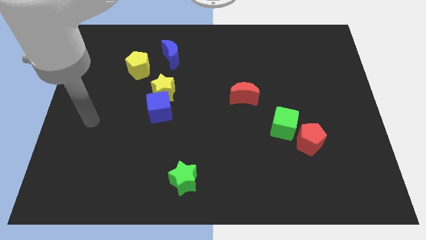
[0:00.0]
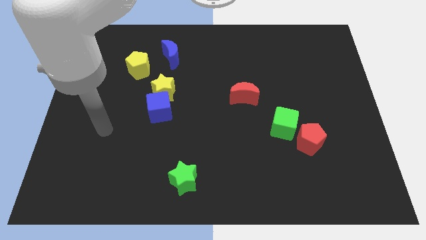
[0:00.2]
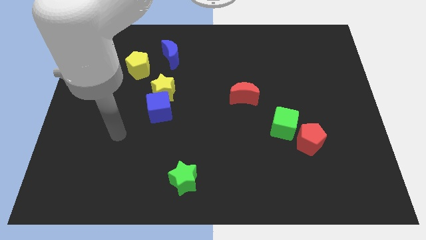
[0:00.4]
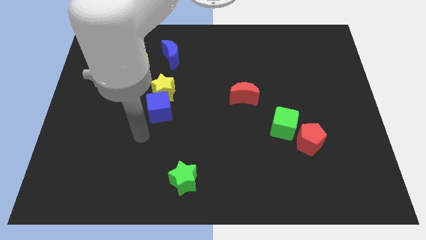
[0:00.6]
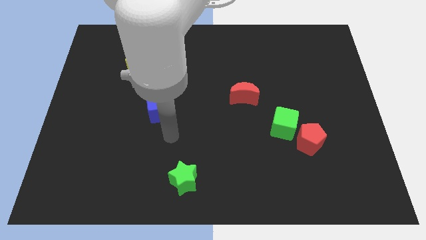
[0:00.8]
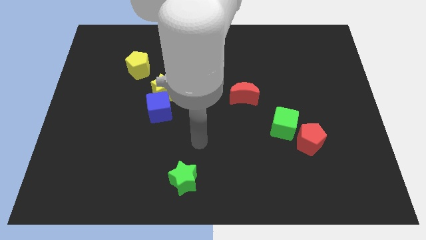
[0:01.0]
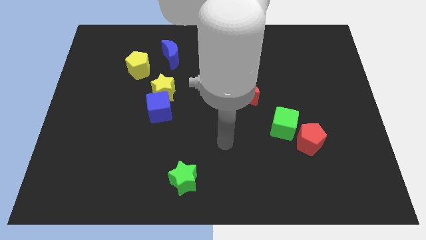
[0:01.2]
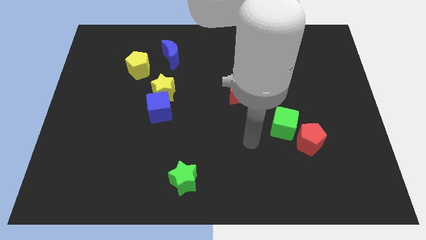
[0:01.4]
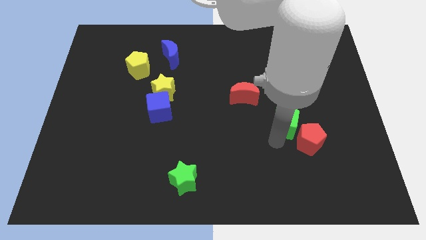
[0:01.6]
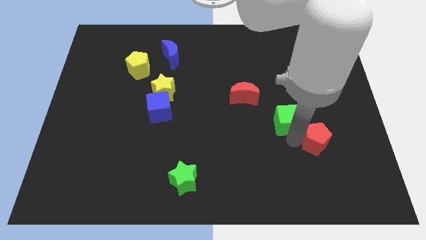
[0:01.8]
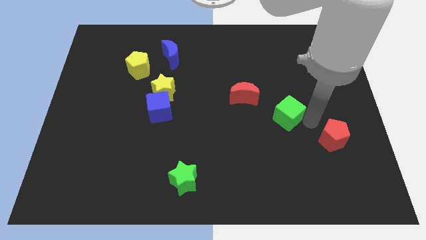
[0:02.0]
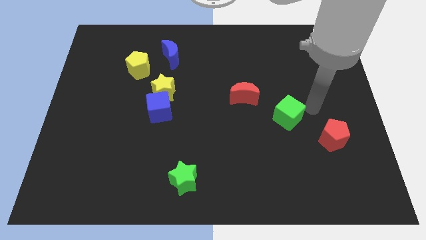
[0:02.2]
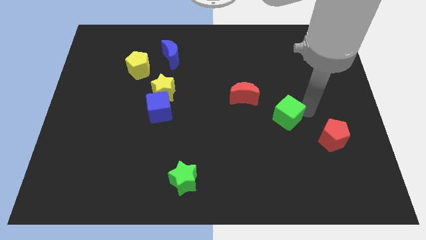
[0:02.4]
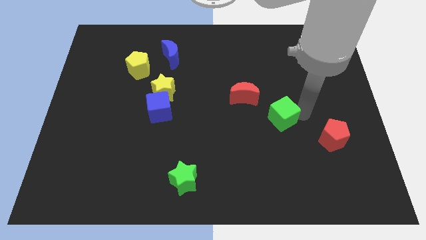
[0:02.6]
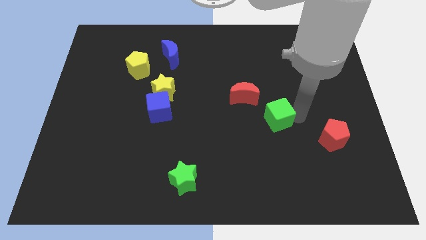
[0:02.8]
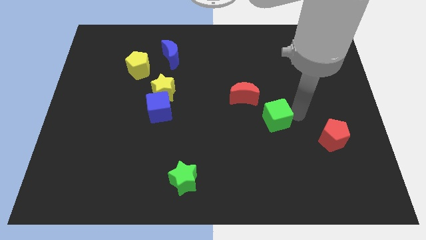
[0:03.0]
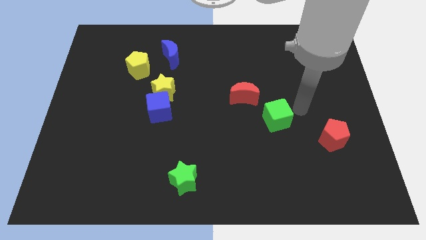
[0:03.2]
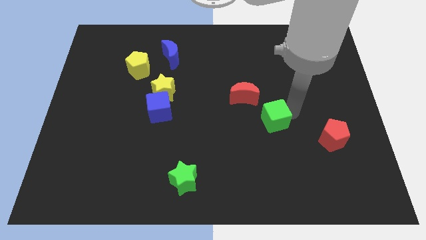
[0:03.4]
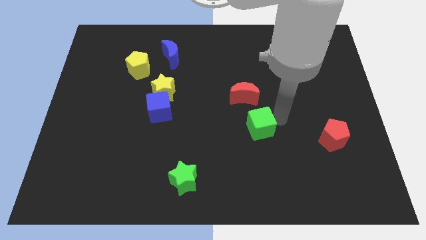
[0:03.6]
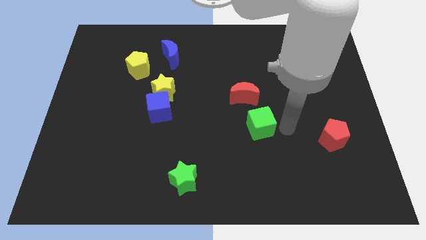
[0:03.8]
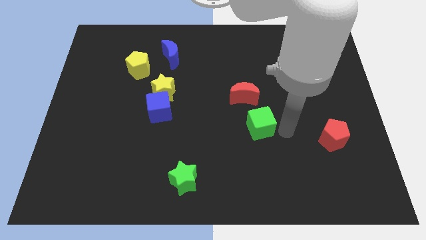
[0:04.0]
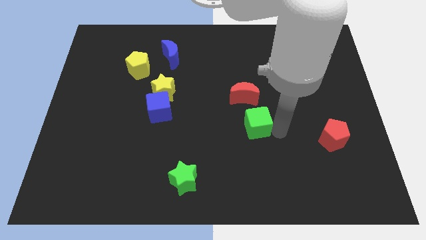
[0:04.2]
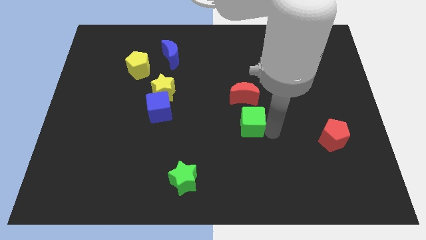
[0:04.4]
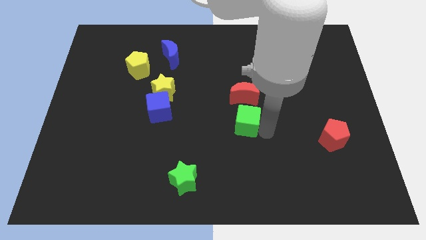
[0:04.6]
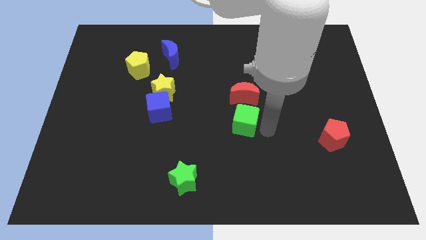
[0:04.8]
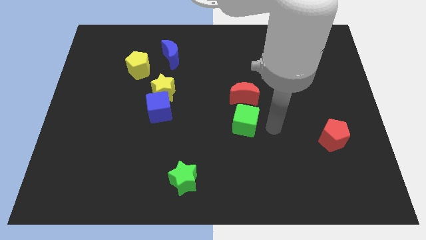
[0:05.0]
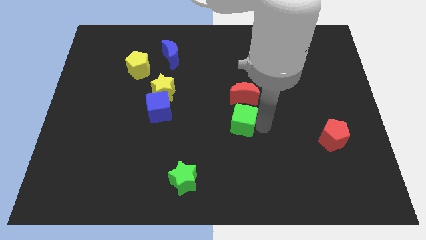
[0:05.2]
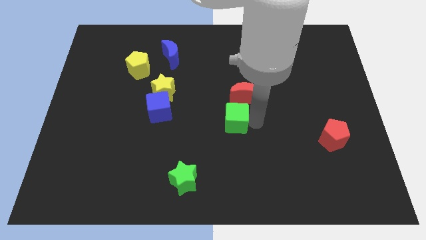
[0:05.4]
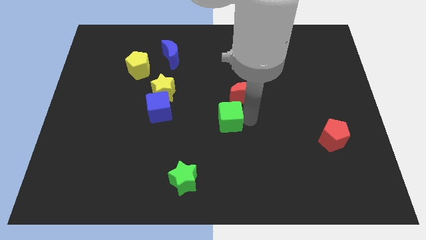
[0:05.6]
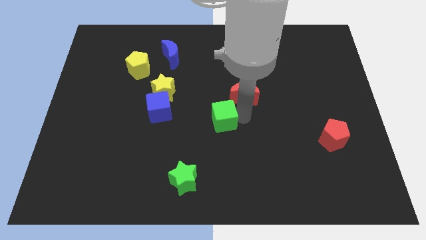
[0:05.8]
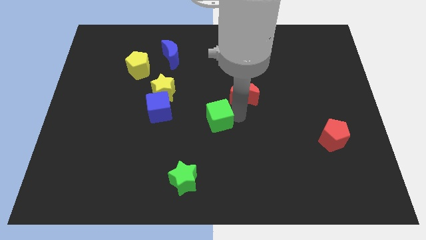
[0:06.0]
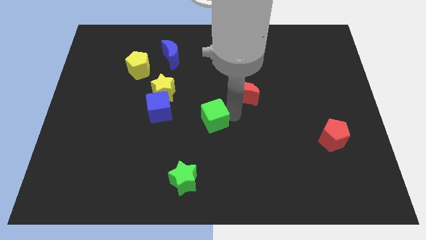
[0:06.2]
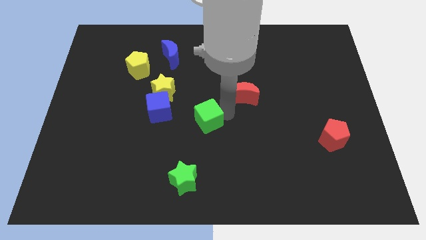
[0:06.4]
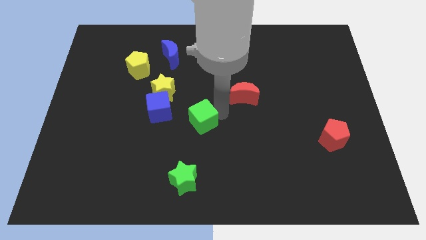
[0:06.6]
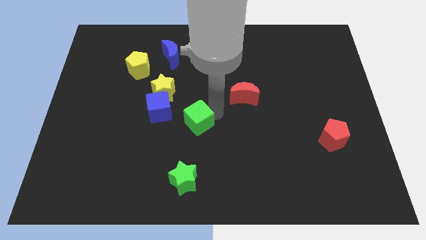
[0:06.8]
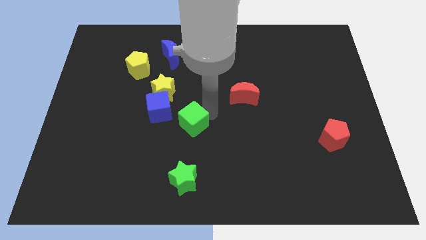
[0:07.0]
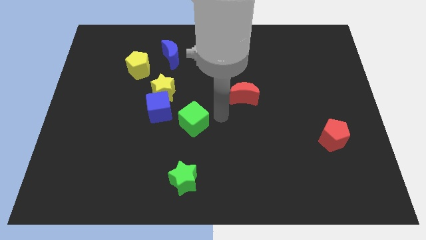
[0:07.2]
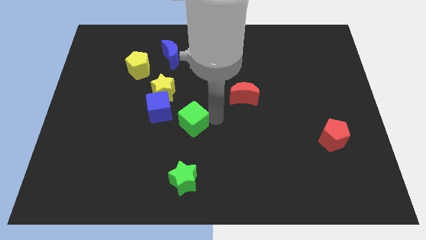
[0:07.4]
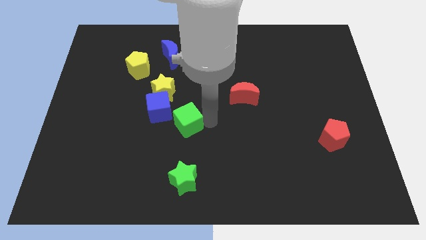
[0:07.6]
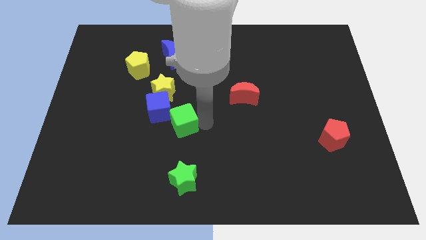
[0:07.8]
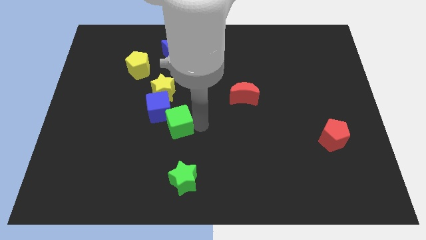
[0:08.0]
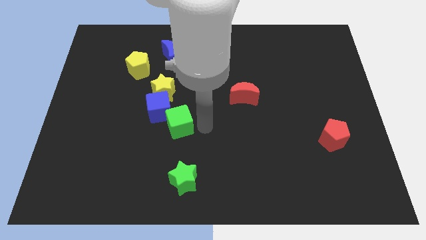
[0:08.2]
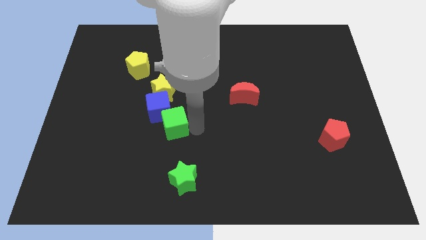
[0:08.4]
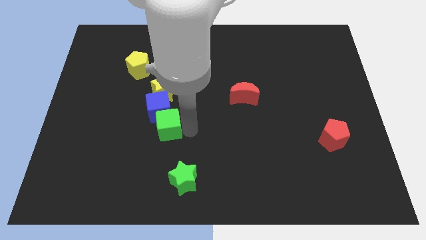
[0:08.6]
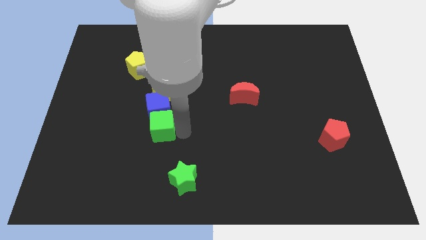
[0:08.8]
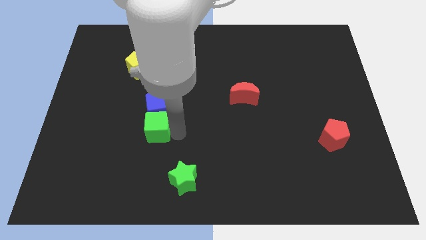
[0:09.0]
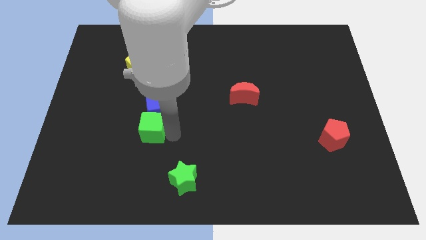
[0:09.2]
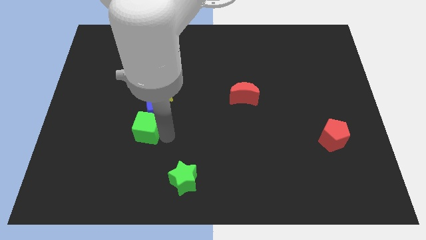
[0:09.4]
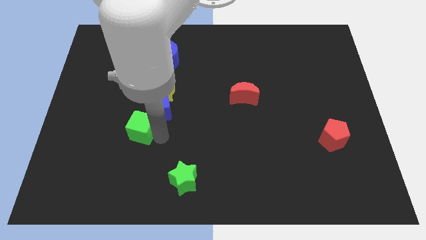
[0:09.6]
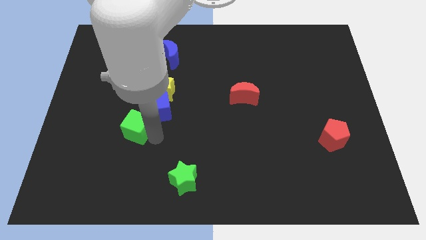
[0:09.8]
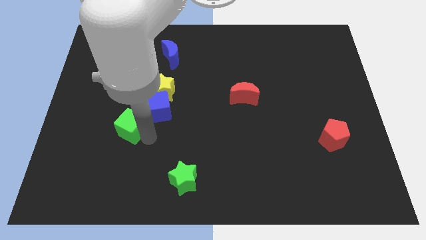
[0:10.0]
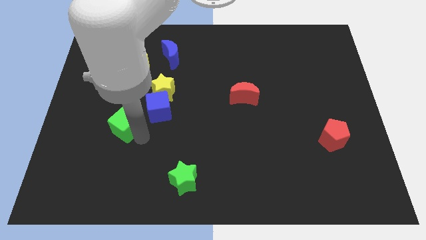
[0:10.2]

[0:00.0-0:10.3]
put the green cube just left of the blue cube

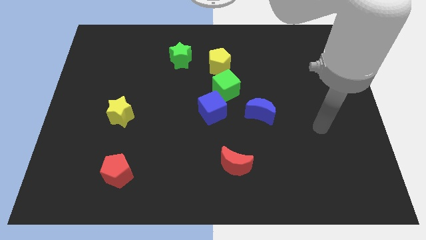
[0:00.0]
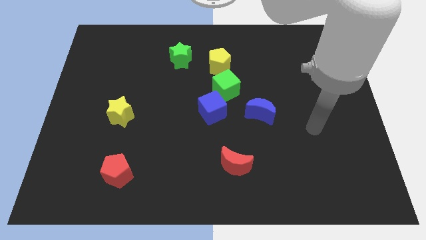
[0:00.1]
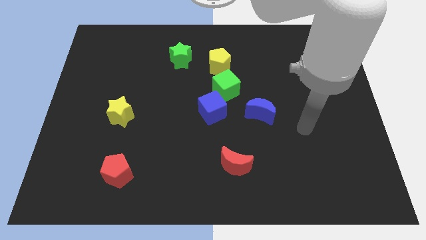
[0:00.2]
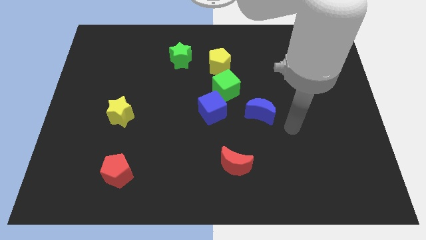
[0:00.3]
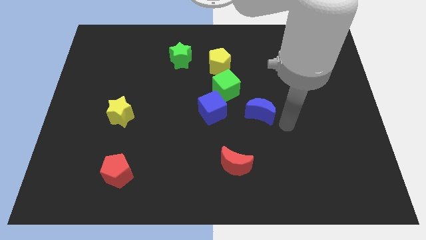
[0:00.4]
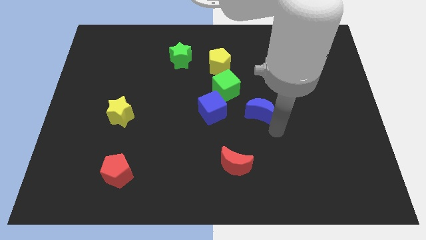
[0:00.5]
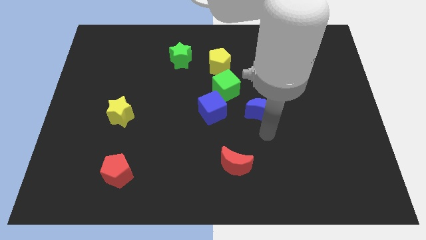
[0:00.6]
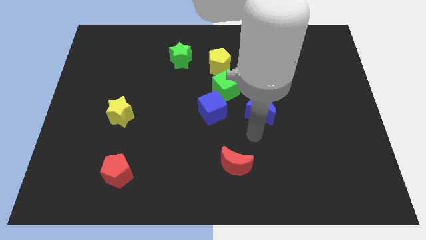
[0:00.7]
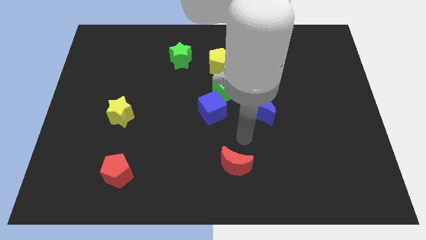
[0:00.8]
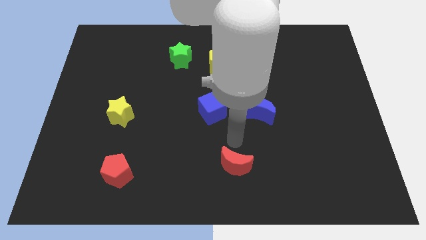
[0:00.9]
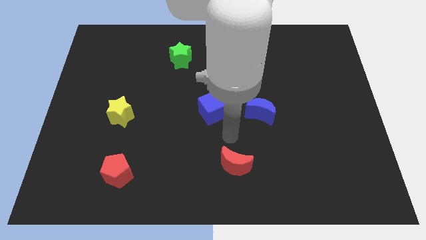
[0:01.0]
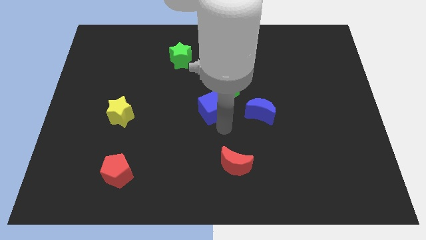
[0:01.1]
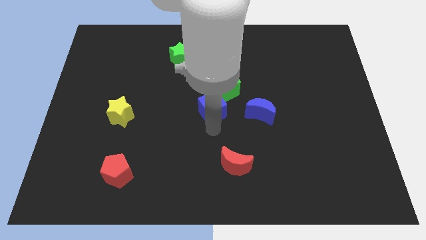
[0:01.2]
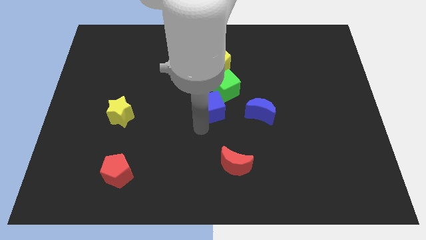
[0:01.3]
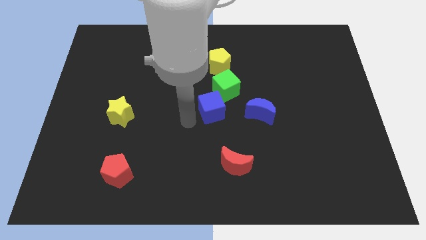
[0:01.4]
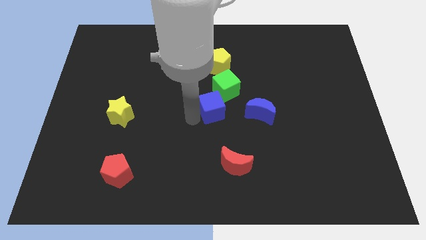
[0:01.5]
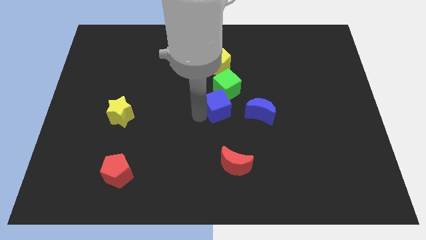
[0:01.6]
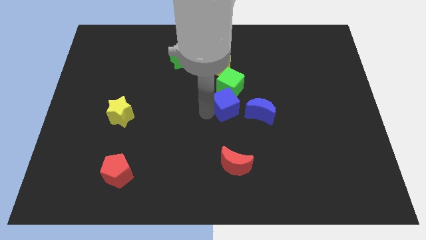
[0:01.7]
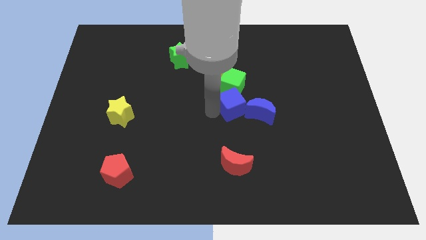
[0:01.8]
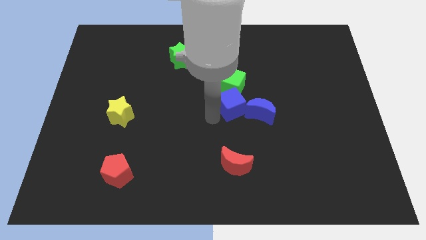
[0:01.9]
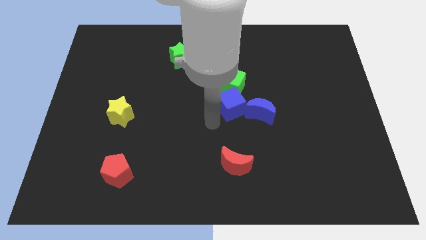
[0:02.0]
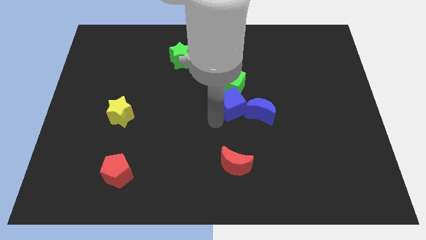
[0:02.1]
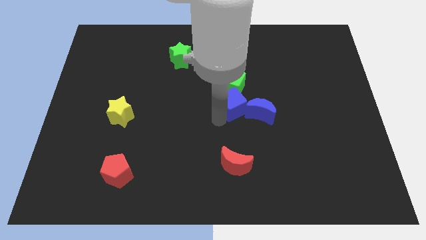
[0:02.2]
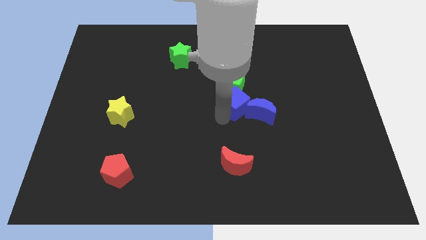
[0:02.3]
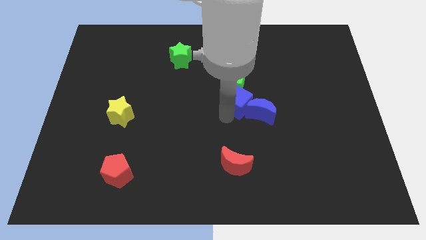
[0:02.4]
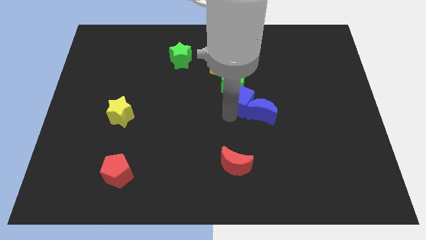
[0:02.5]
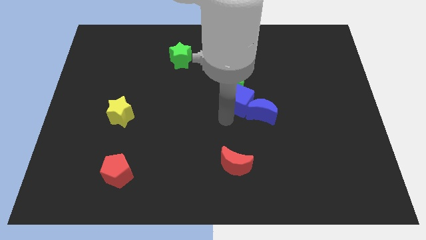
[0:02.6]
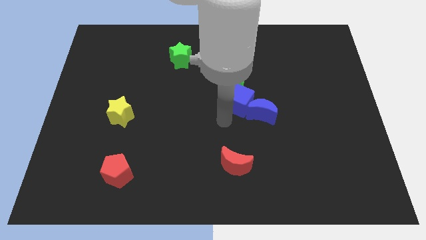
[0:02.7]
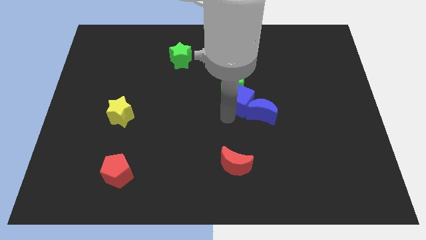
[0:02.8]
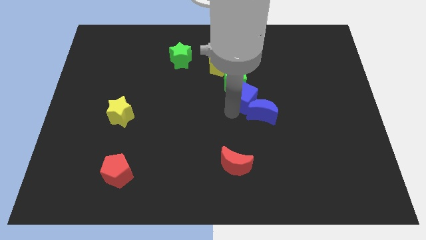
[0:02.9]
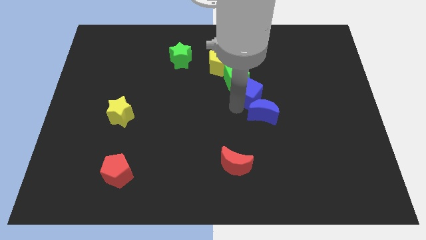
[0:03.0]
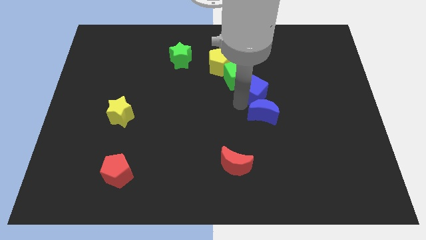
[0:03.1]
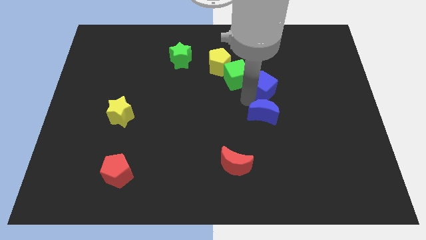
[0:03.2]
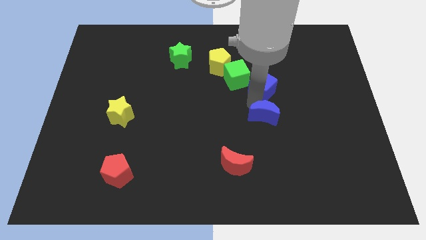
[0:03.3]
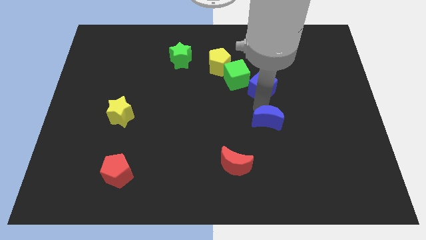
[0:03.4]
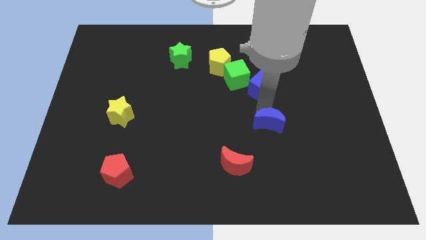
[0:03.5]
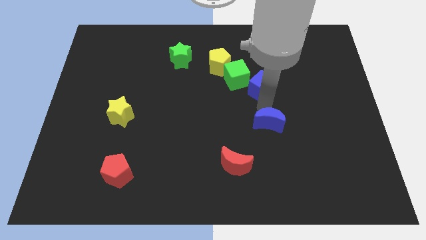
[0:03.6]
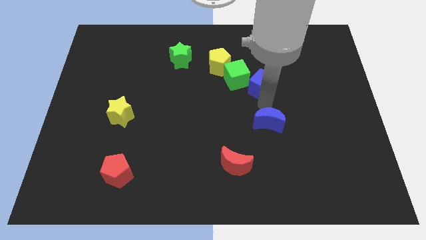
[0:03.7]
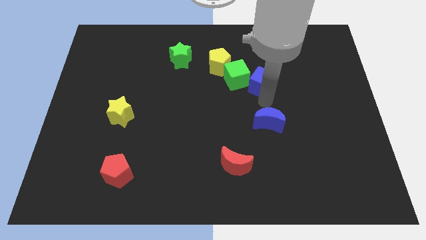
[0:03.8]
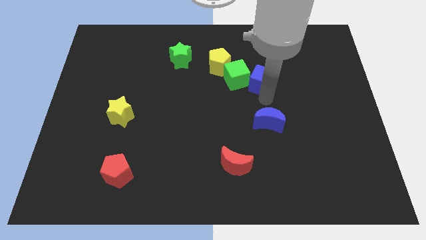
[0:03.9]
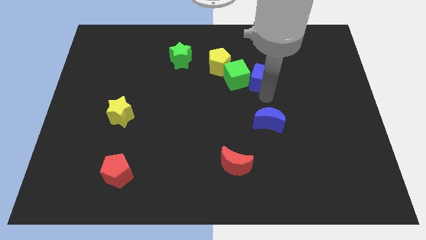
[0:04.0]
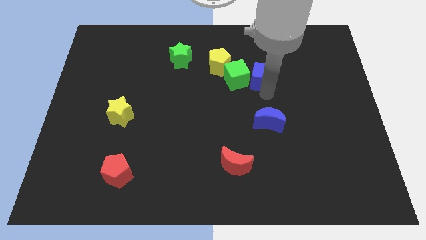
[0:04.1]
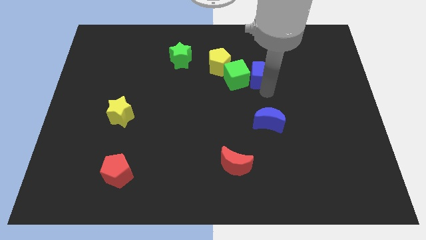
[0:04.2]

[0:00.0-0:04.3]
slide the blue cube just right of the yellow pentagon
